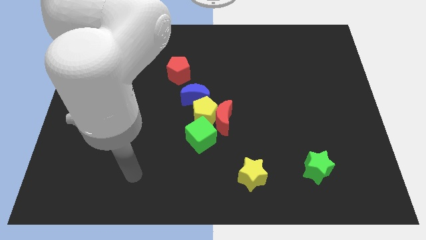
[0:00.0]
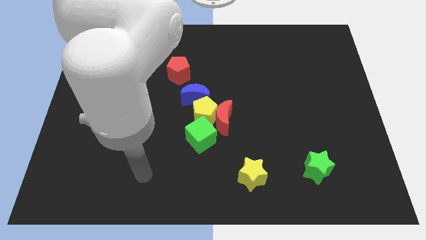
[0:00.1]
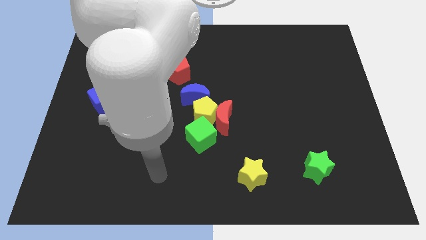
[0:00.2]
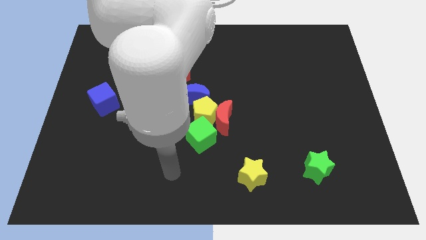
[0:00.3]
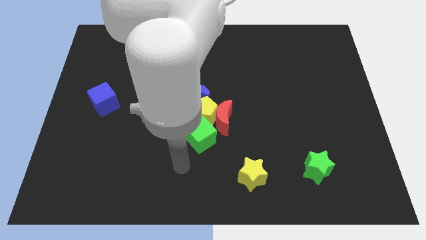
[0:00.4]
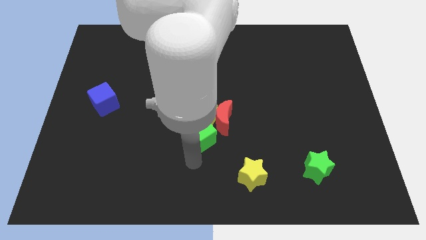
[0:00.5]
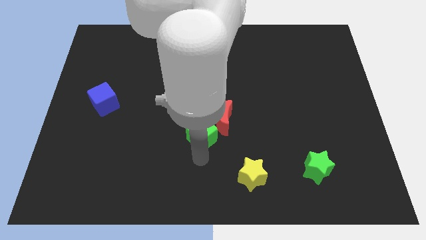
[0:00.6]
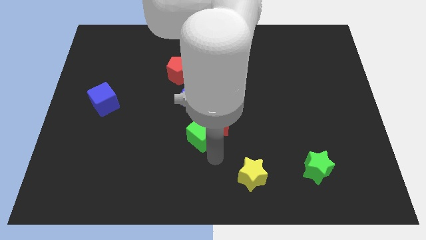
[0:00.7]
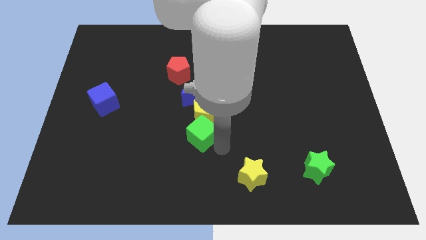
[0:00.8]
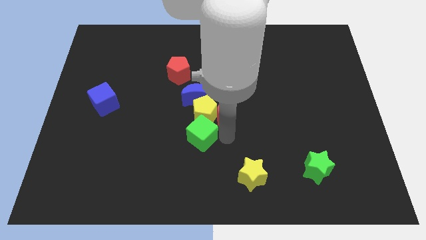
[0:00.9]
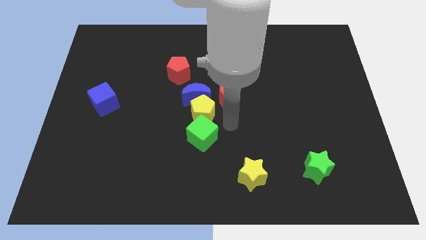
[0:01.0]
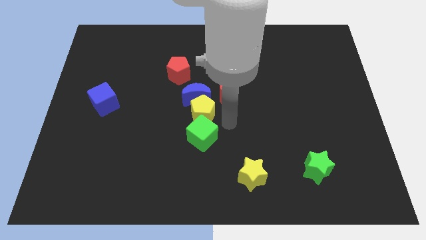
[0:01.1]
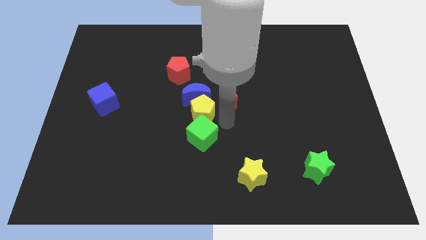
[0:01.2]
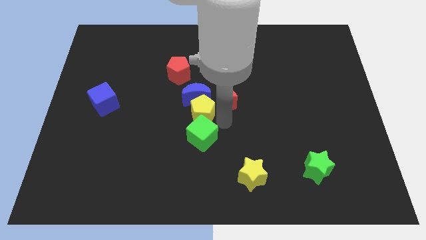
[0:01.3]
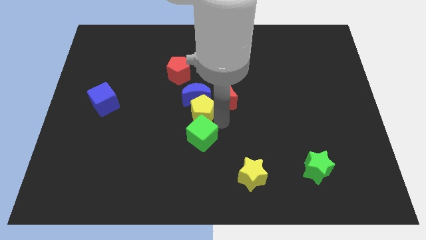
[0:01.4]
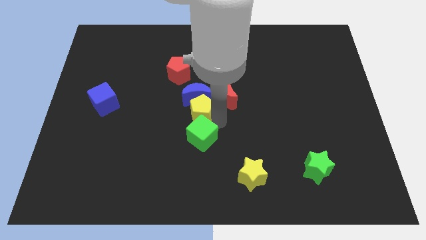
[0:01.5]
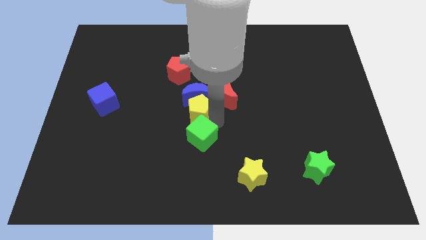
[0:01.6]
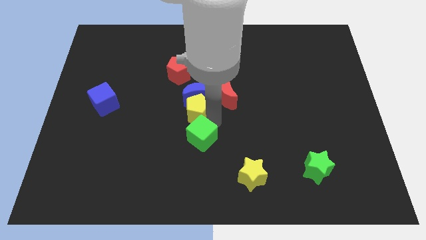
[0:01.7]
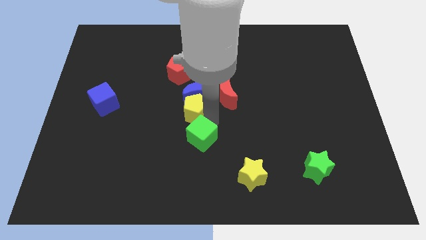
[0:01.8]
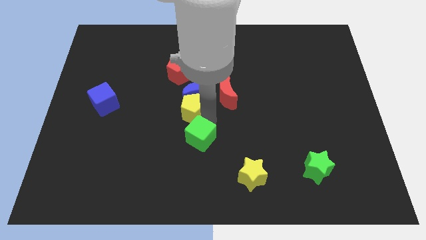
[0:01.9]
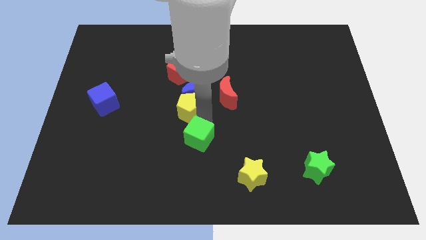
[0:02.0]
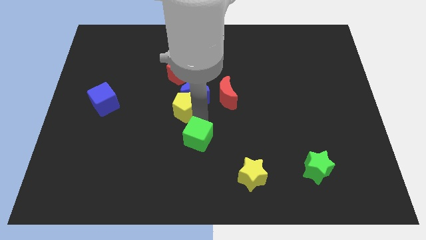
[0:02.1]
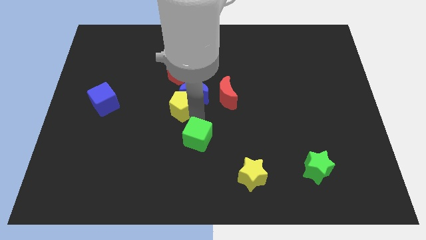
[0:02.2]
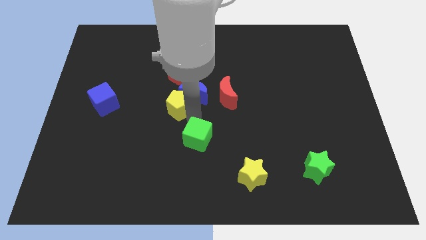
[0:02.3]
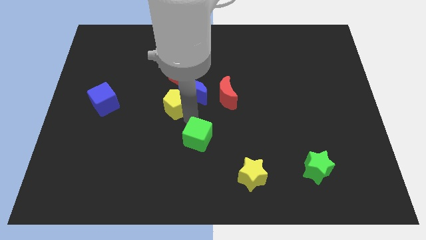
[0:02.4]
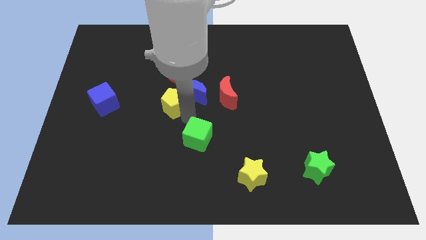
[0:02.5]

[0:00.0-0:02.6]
slightly slide the yellow pentagon up and to the left diagonally

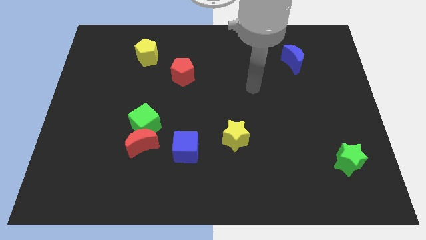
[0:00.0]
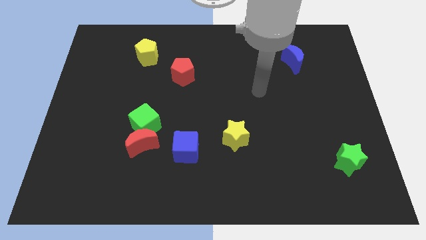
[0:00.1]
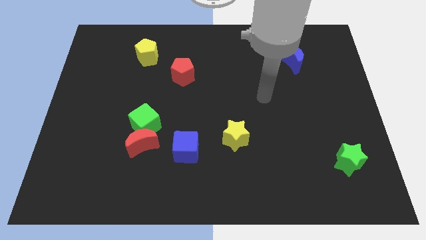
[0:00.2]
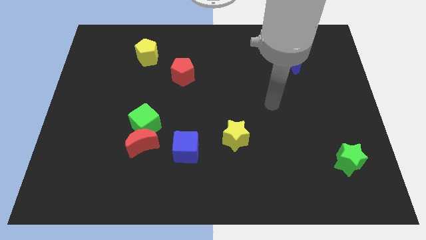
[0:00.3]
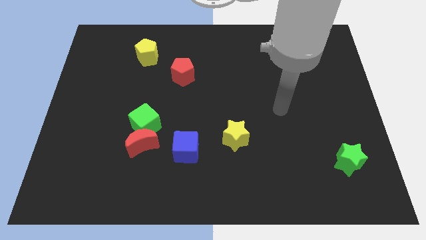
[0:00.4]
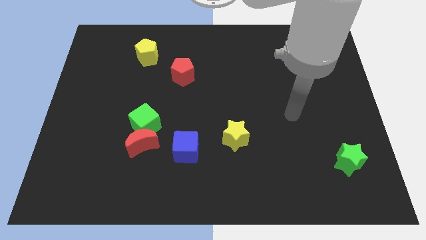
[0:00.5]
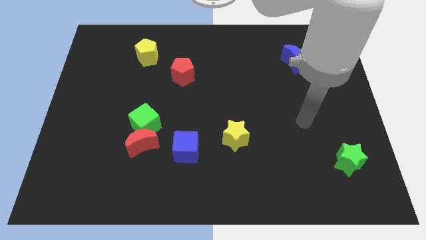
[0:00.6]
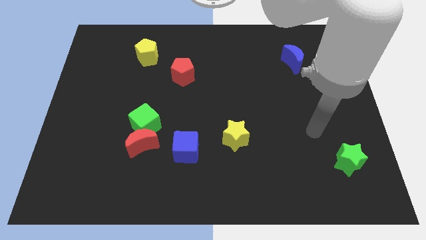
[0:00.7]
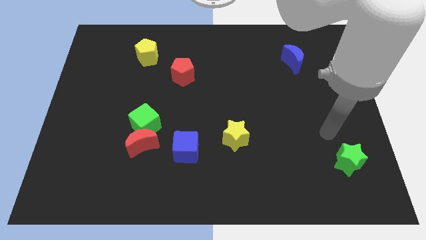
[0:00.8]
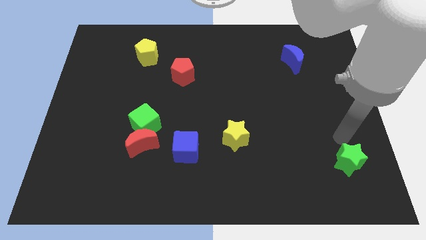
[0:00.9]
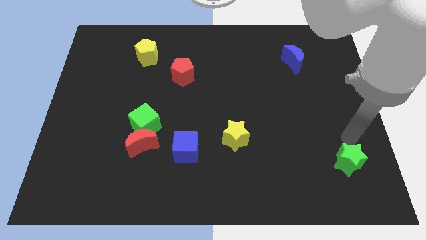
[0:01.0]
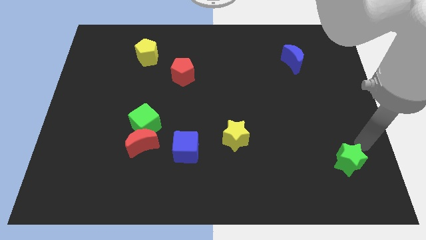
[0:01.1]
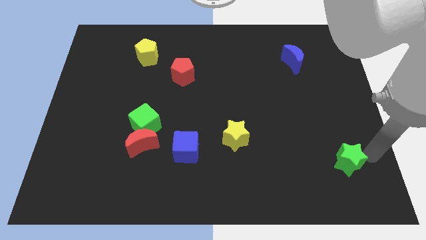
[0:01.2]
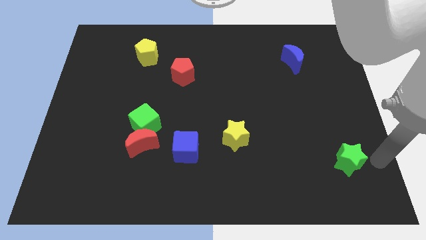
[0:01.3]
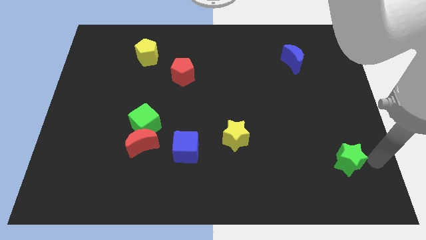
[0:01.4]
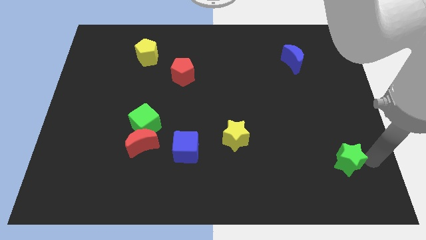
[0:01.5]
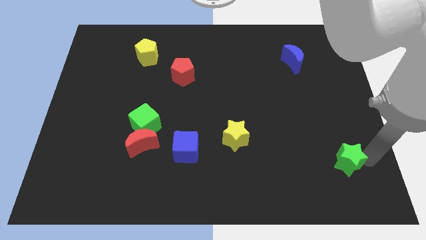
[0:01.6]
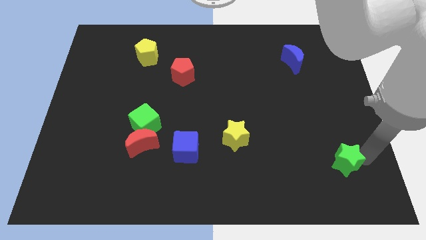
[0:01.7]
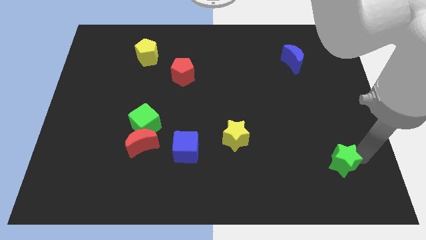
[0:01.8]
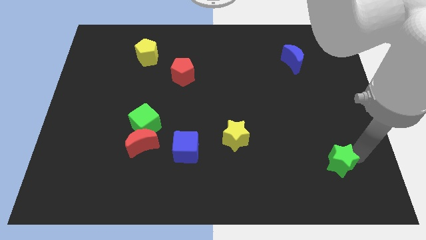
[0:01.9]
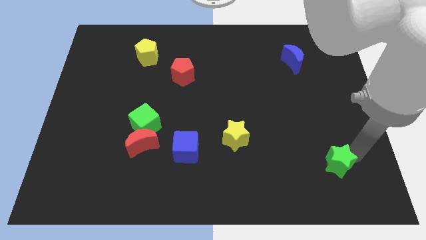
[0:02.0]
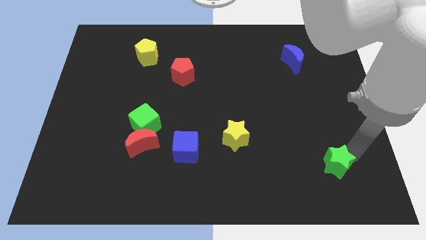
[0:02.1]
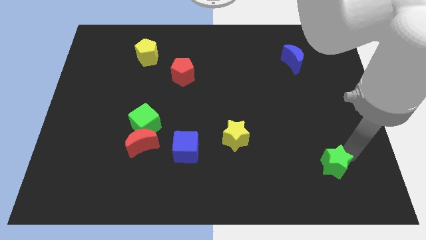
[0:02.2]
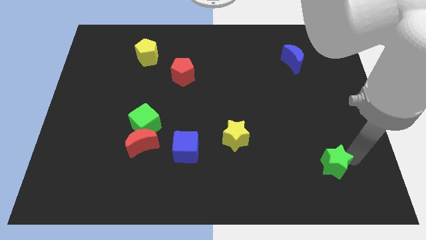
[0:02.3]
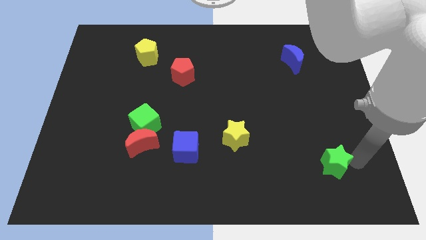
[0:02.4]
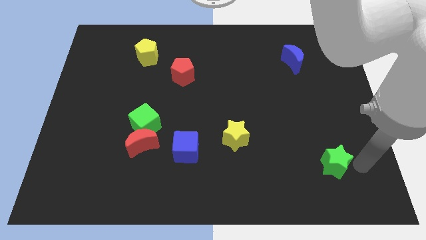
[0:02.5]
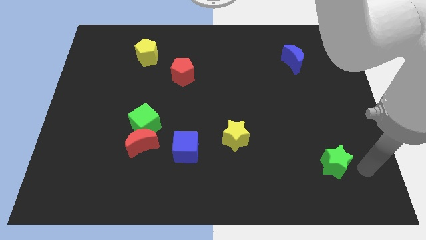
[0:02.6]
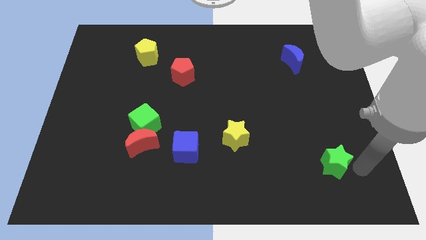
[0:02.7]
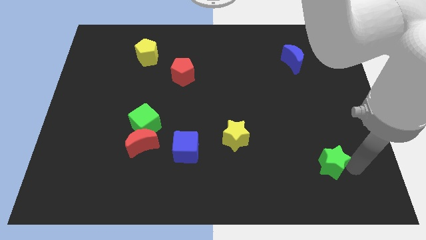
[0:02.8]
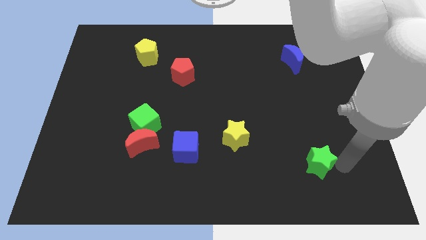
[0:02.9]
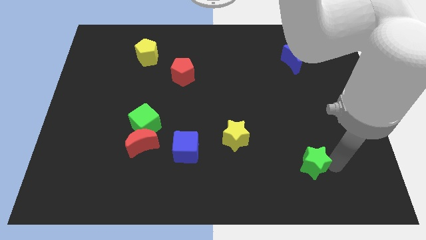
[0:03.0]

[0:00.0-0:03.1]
move the green star to the left a little bit

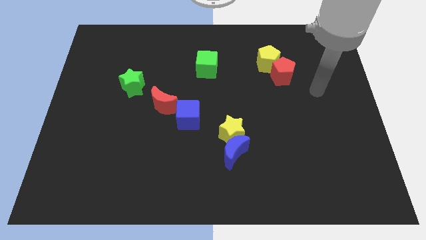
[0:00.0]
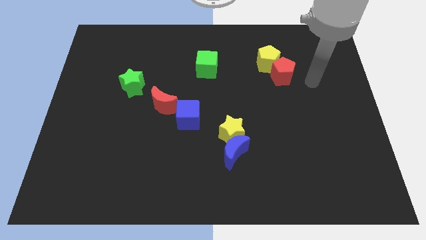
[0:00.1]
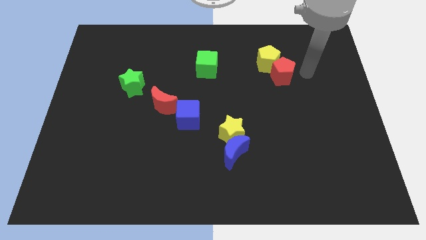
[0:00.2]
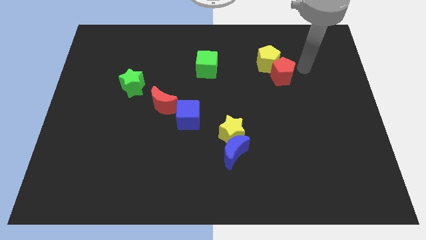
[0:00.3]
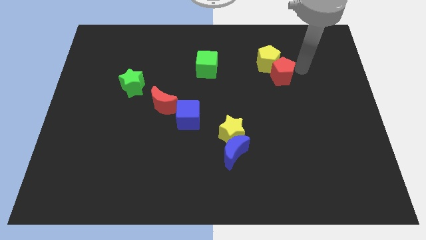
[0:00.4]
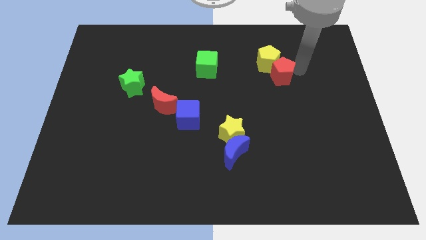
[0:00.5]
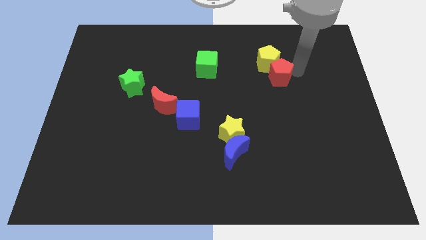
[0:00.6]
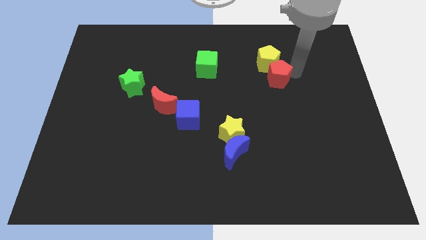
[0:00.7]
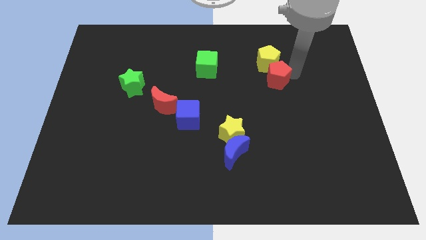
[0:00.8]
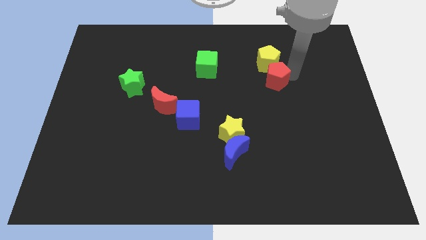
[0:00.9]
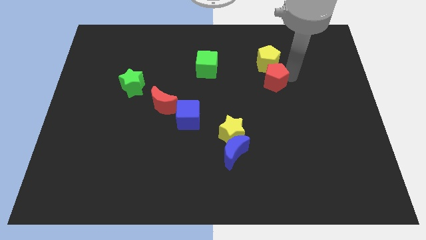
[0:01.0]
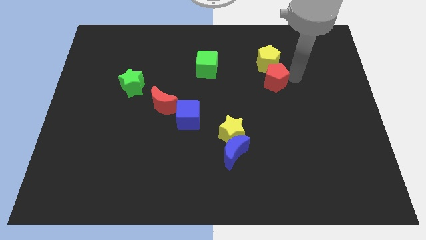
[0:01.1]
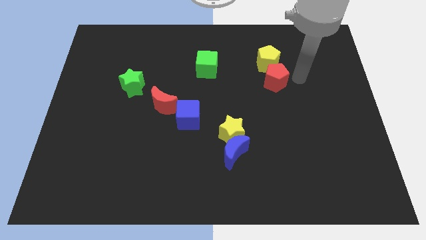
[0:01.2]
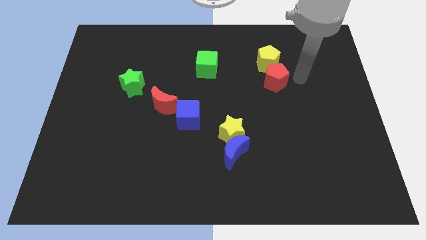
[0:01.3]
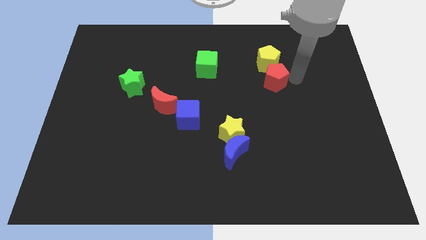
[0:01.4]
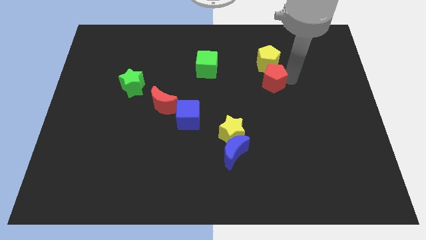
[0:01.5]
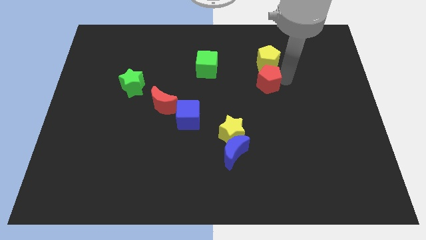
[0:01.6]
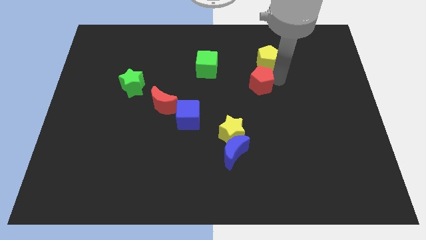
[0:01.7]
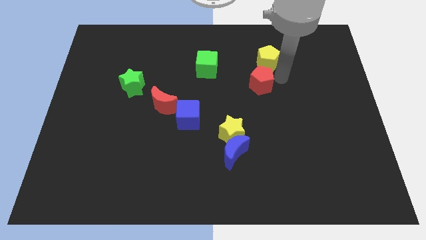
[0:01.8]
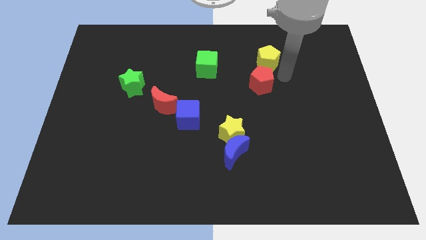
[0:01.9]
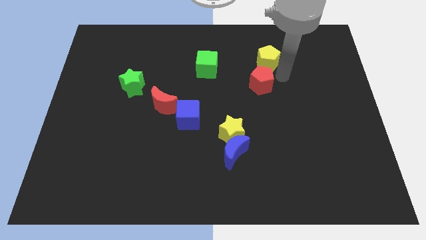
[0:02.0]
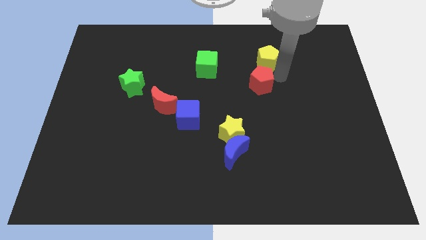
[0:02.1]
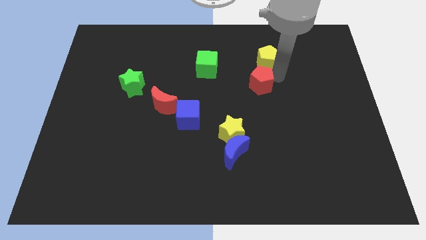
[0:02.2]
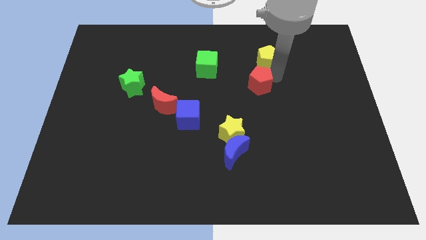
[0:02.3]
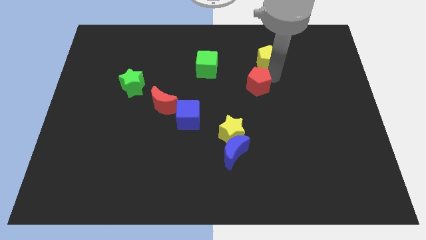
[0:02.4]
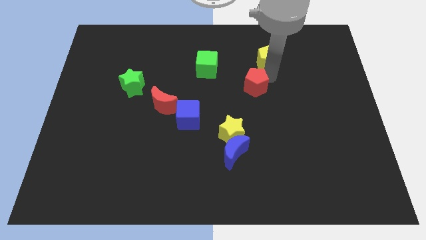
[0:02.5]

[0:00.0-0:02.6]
slightly move the red pentagon downwards and to the left
